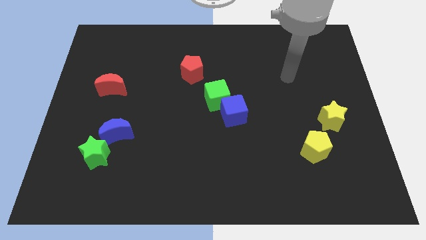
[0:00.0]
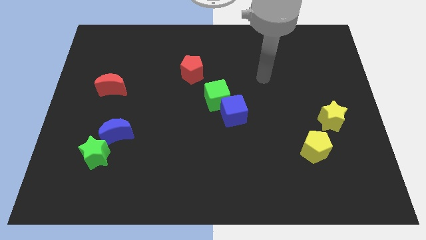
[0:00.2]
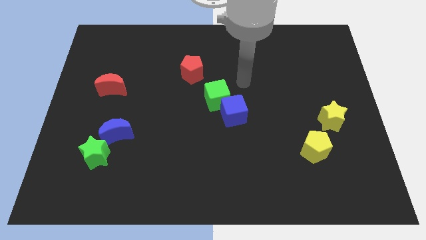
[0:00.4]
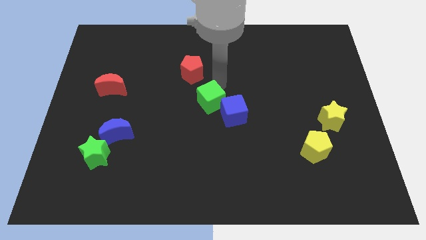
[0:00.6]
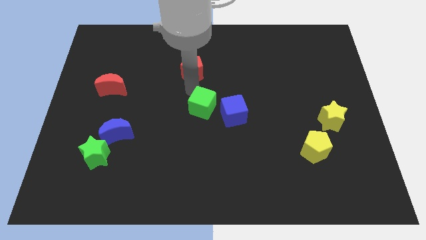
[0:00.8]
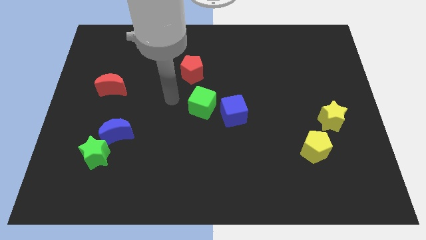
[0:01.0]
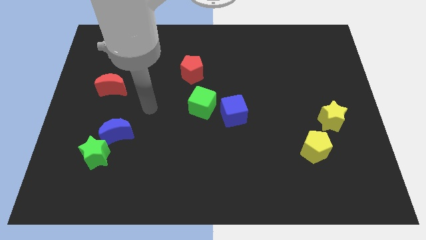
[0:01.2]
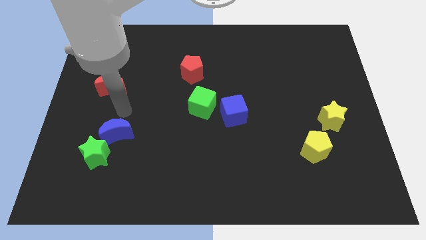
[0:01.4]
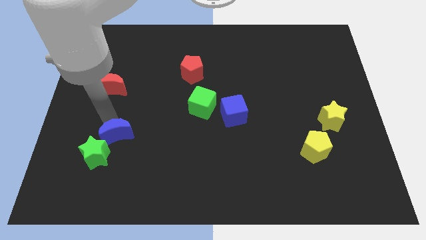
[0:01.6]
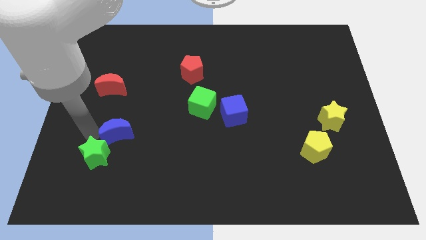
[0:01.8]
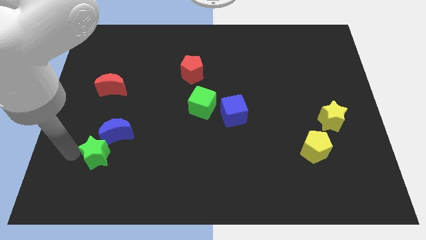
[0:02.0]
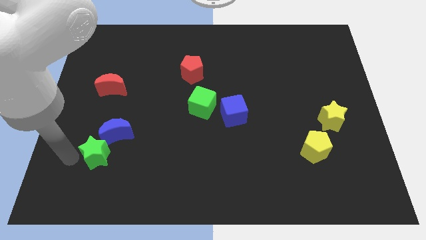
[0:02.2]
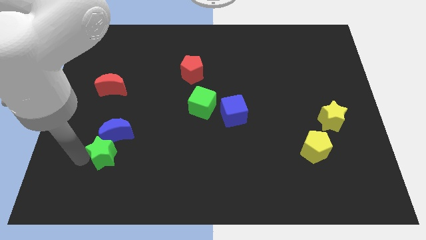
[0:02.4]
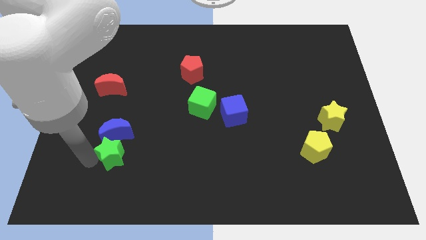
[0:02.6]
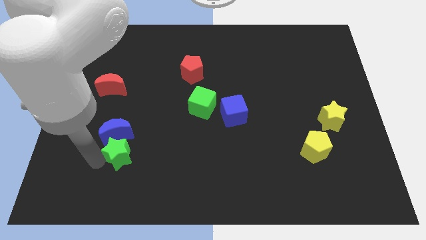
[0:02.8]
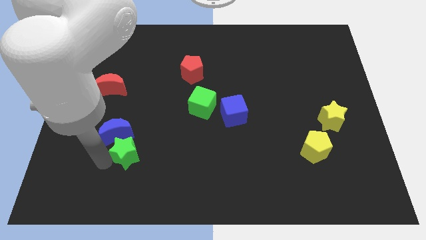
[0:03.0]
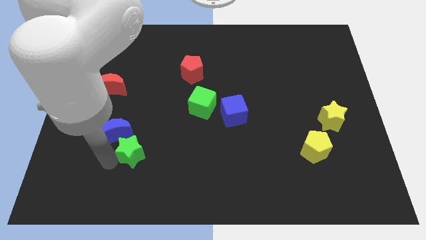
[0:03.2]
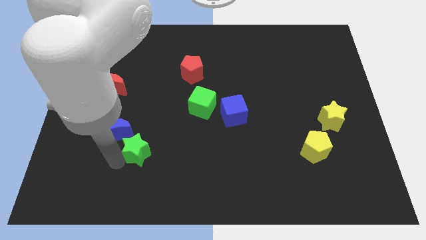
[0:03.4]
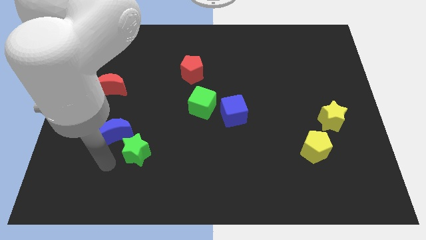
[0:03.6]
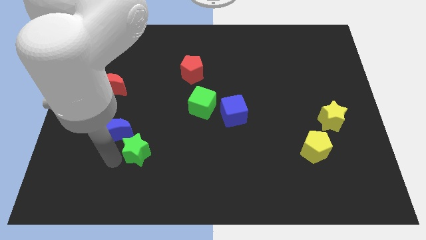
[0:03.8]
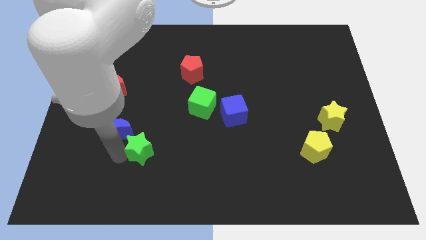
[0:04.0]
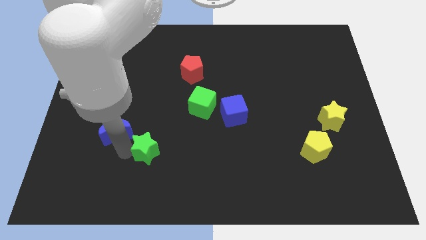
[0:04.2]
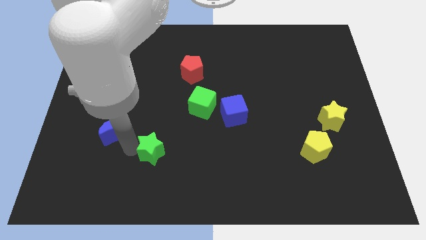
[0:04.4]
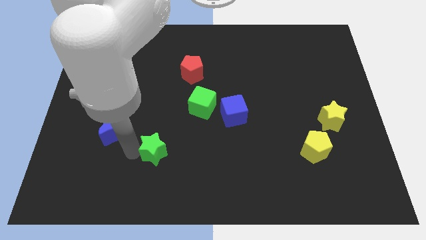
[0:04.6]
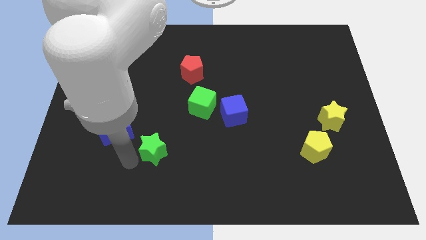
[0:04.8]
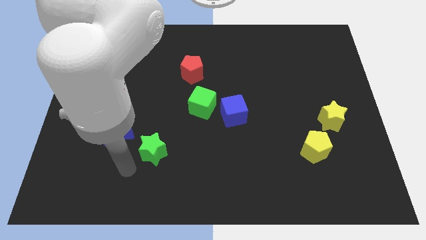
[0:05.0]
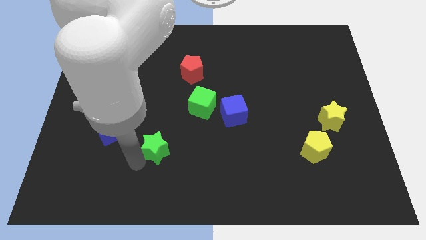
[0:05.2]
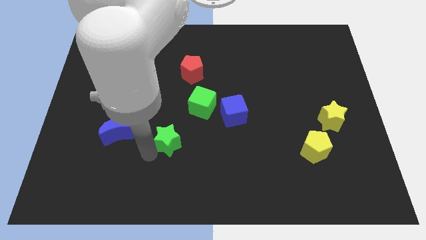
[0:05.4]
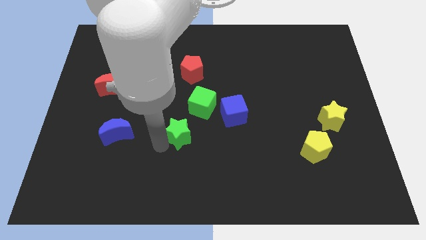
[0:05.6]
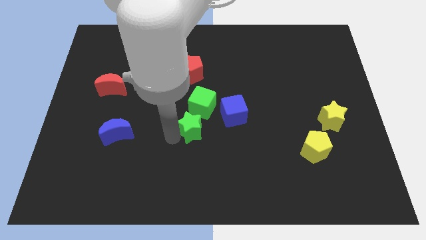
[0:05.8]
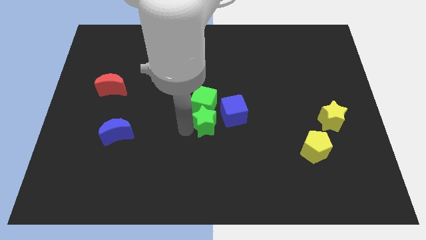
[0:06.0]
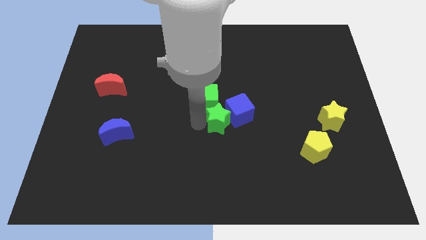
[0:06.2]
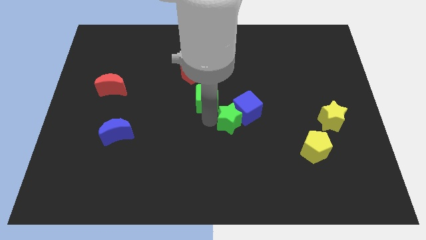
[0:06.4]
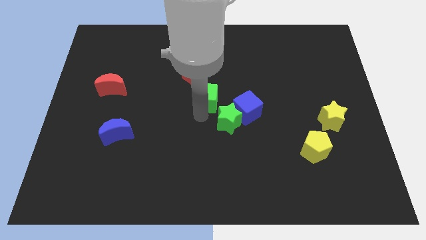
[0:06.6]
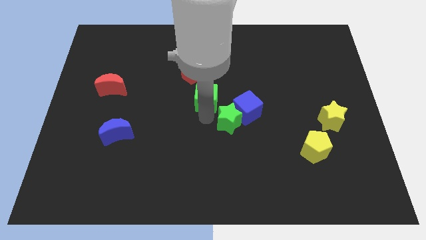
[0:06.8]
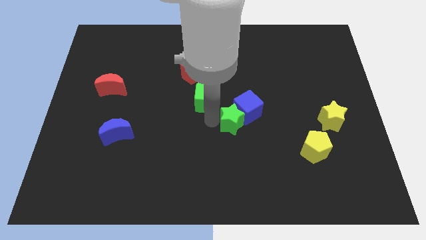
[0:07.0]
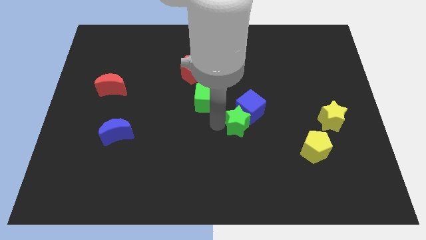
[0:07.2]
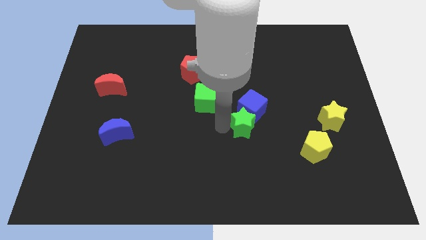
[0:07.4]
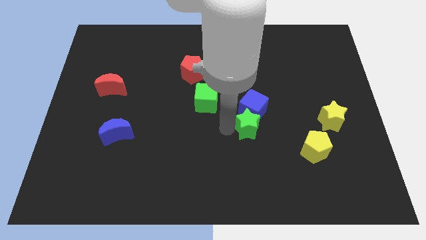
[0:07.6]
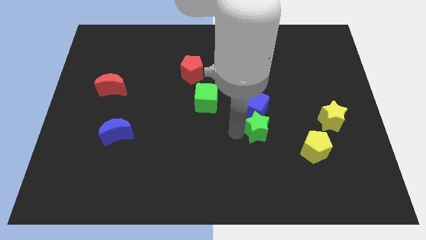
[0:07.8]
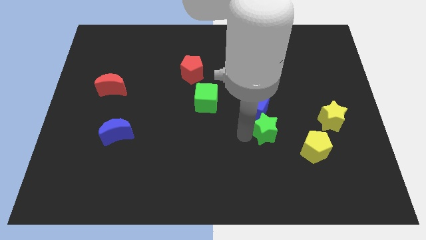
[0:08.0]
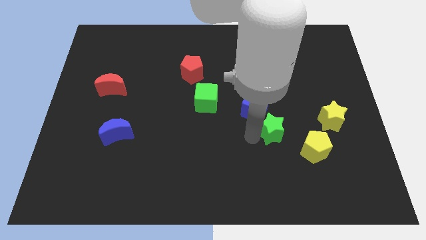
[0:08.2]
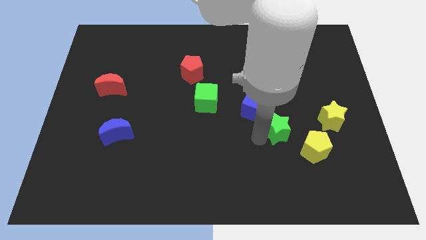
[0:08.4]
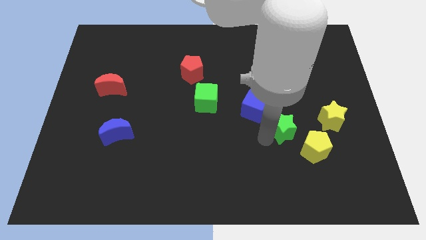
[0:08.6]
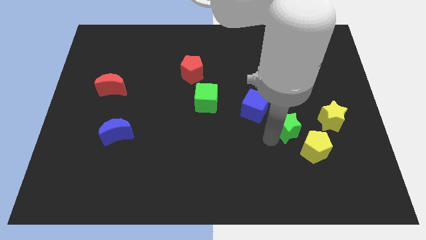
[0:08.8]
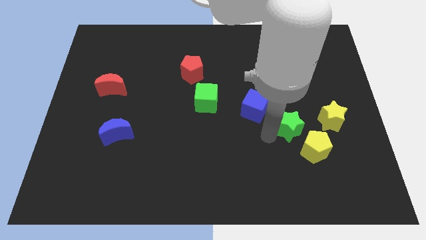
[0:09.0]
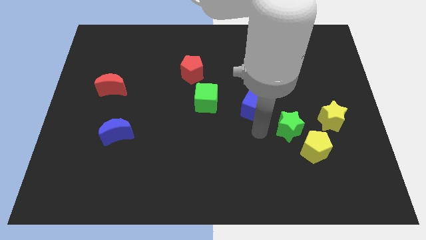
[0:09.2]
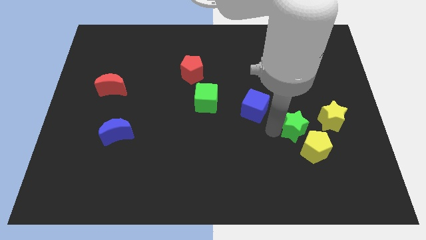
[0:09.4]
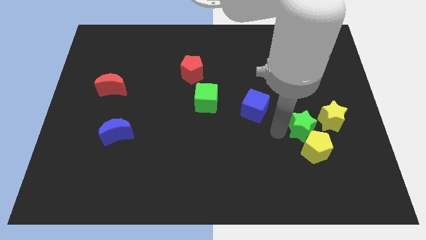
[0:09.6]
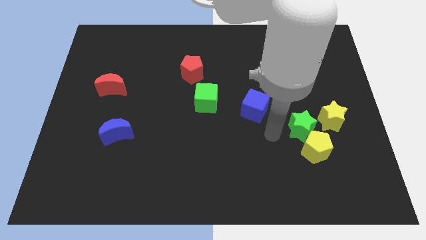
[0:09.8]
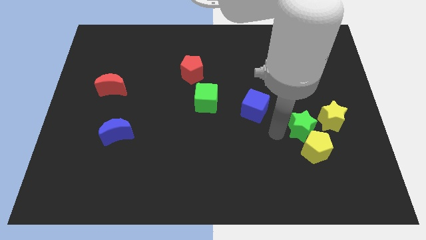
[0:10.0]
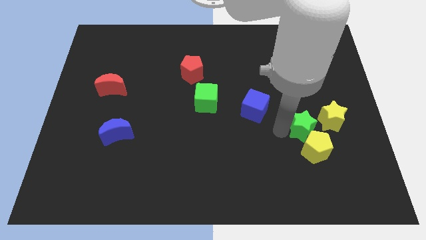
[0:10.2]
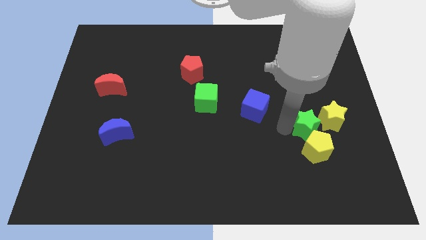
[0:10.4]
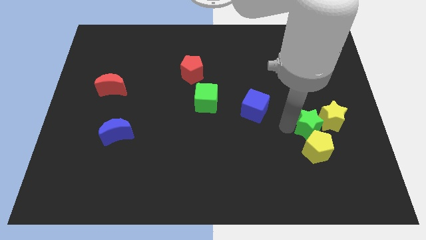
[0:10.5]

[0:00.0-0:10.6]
slide the green star next to the yellow star

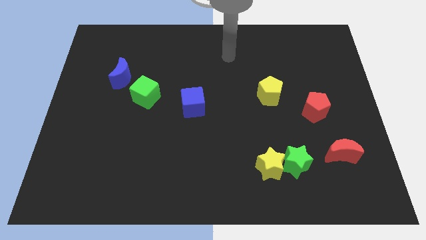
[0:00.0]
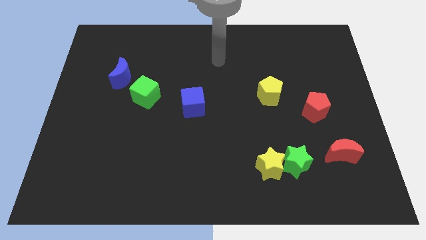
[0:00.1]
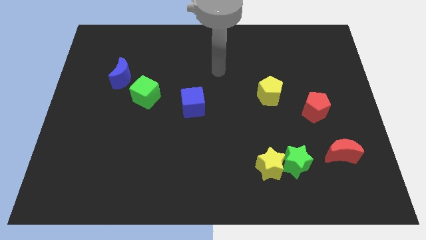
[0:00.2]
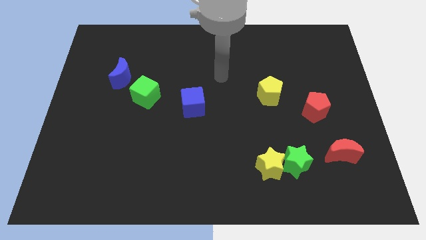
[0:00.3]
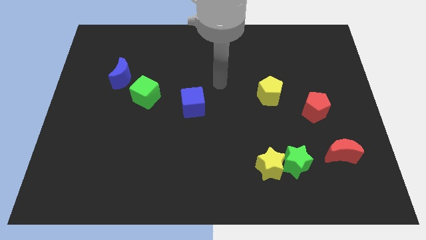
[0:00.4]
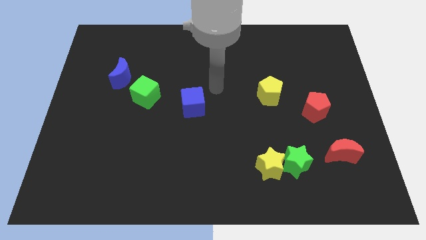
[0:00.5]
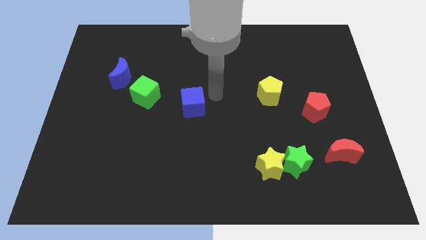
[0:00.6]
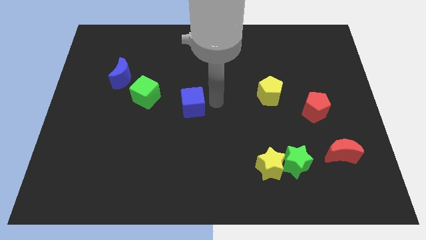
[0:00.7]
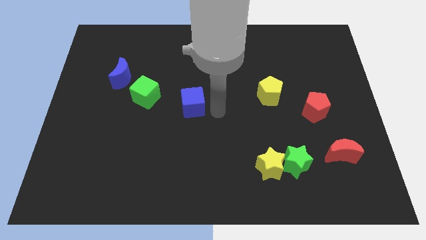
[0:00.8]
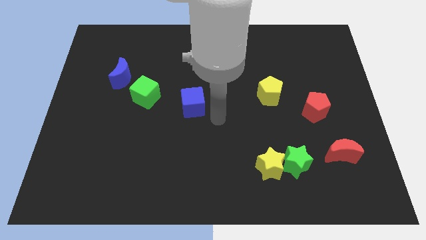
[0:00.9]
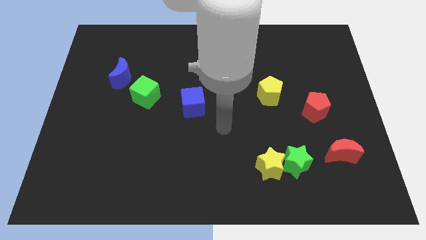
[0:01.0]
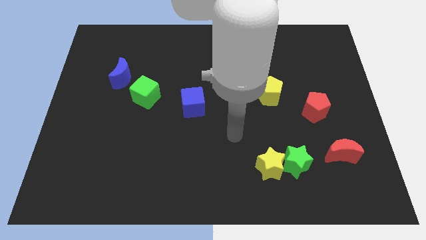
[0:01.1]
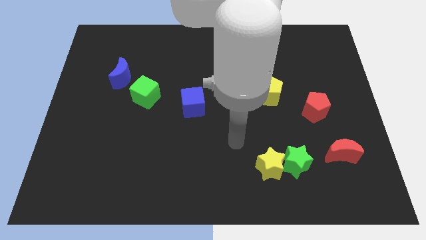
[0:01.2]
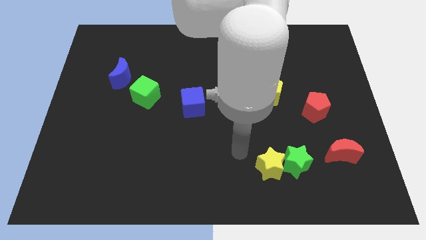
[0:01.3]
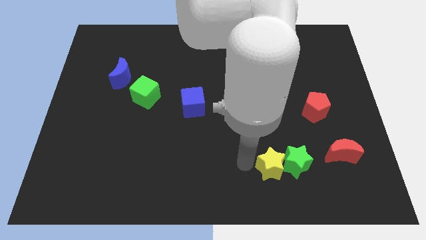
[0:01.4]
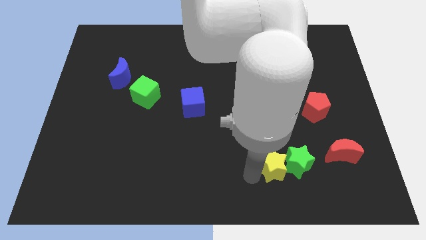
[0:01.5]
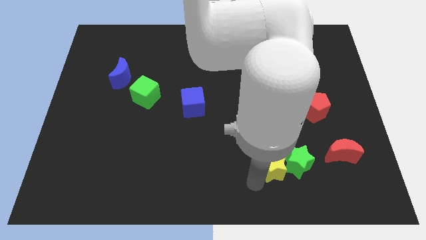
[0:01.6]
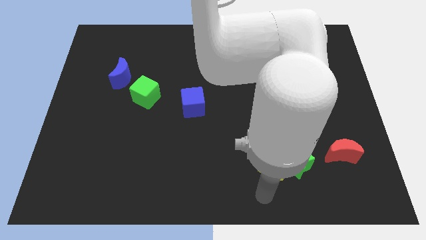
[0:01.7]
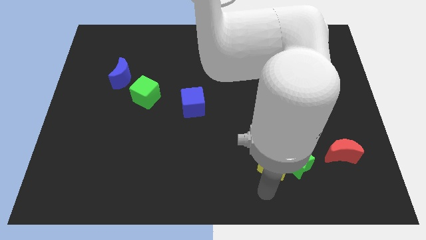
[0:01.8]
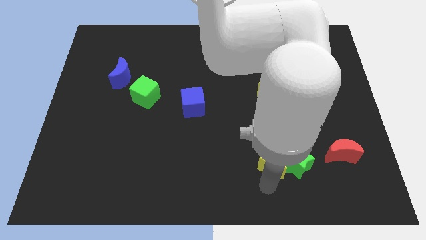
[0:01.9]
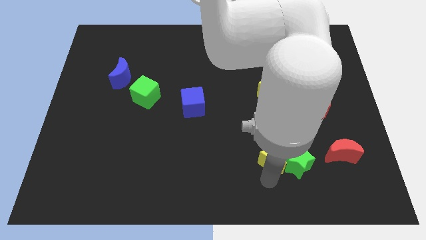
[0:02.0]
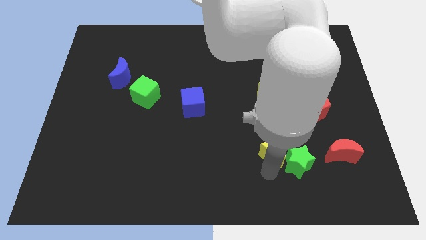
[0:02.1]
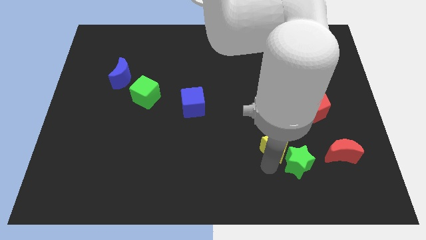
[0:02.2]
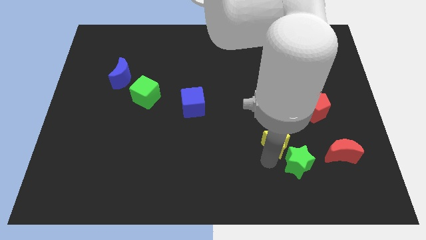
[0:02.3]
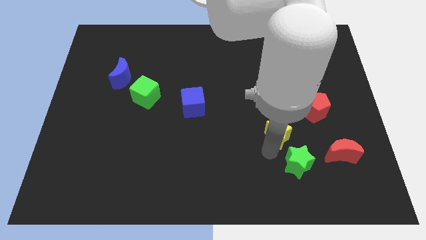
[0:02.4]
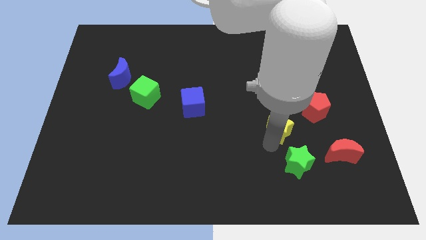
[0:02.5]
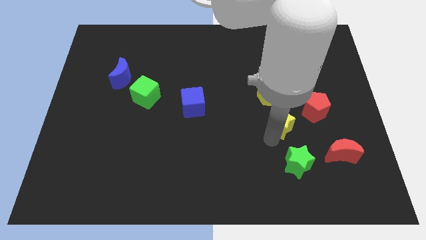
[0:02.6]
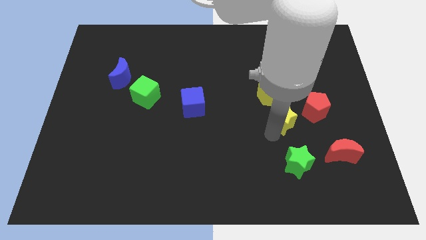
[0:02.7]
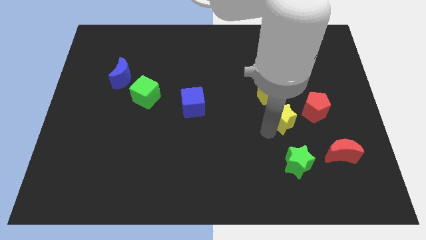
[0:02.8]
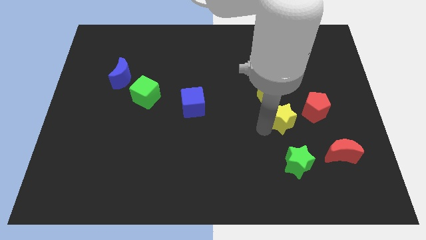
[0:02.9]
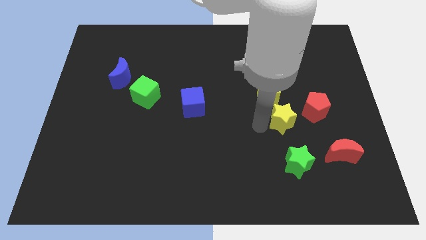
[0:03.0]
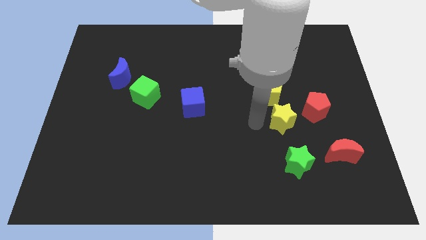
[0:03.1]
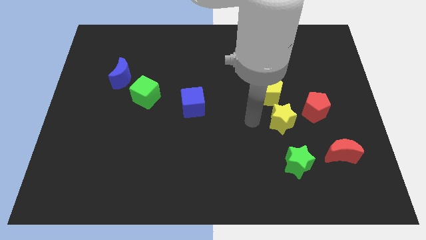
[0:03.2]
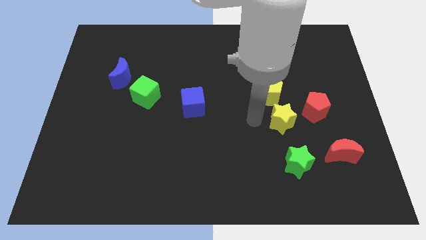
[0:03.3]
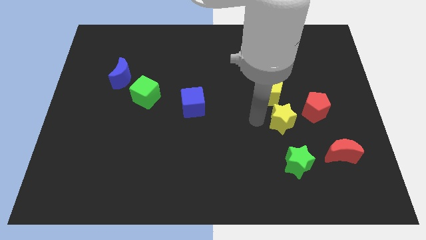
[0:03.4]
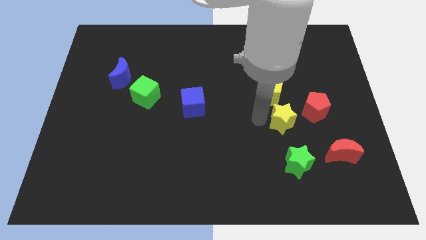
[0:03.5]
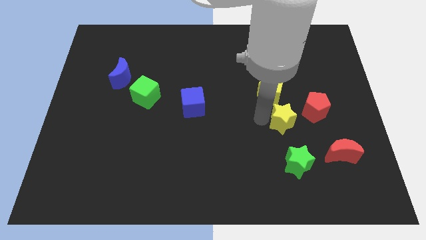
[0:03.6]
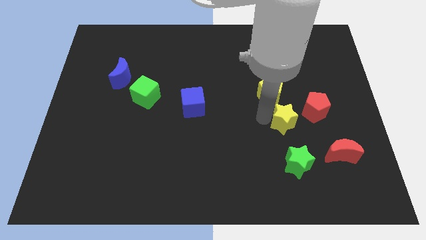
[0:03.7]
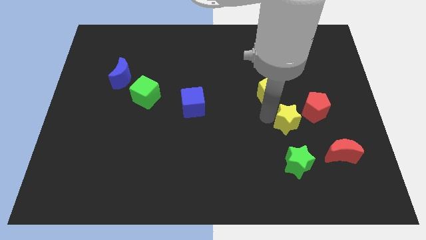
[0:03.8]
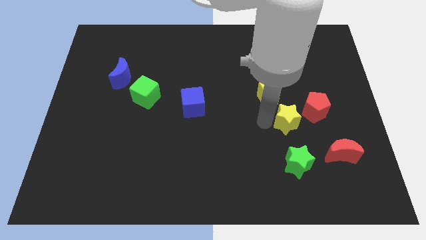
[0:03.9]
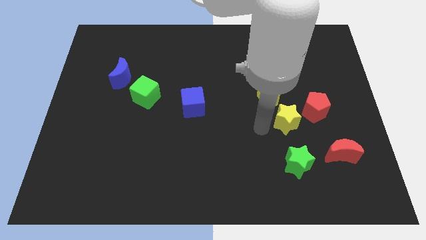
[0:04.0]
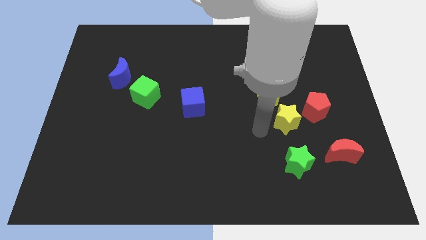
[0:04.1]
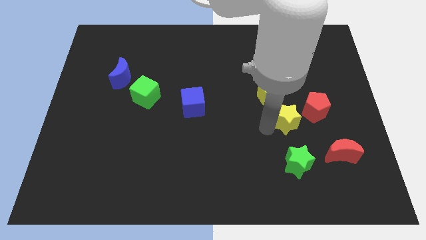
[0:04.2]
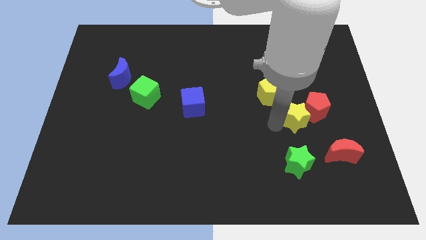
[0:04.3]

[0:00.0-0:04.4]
put the yellow star close to the red pentagon
